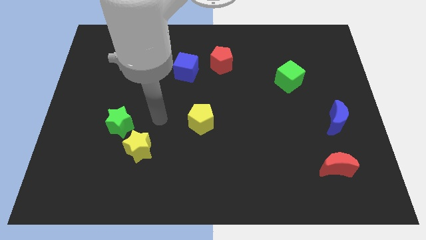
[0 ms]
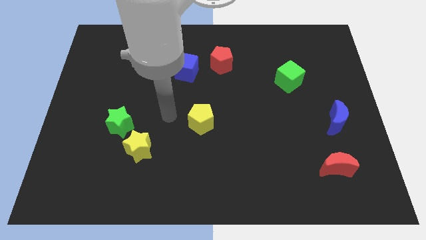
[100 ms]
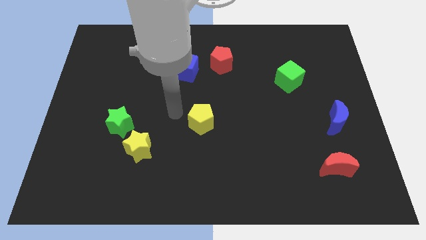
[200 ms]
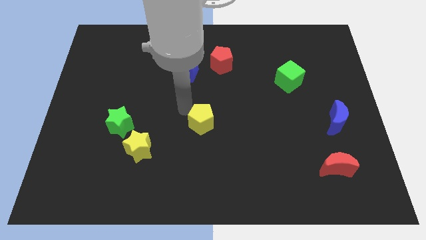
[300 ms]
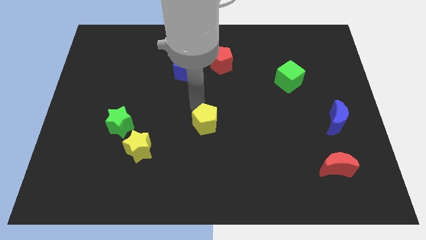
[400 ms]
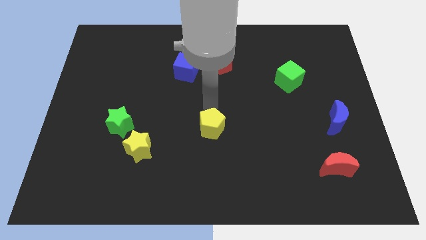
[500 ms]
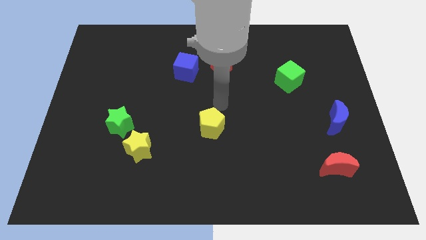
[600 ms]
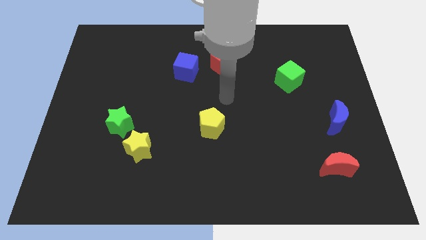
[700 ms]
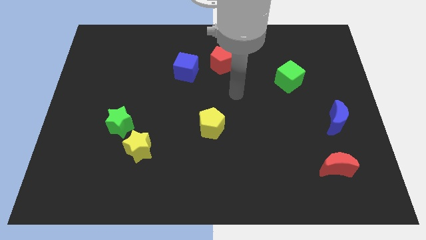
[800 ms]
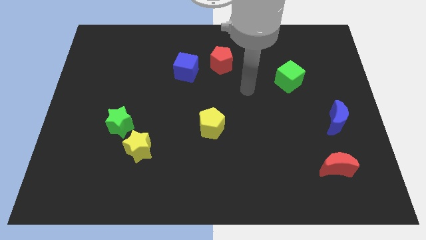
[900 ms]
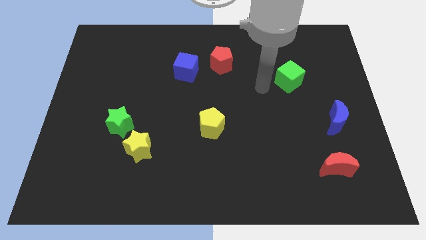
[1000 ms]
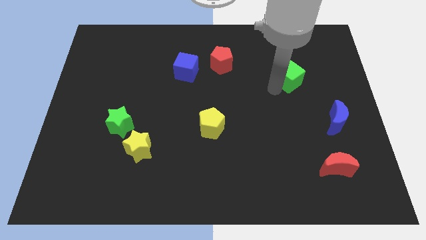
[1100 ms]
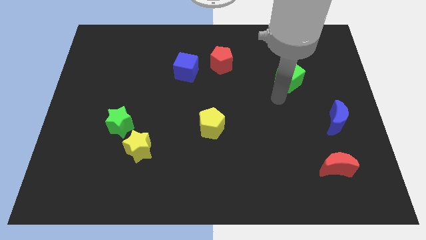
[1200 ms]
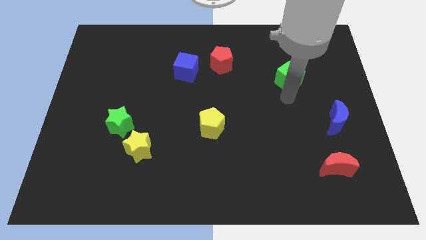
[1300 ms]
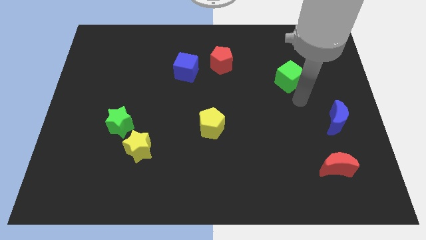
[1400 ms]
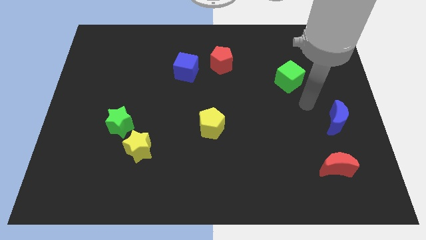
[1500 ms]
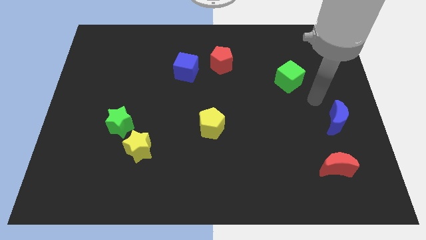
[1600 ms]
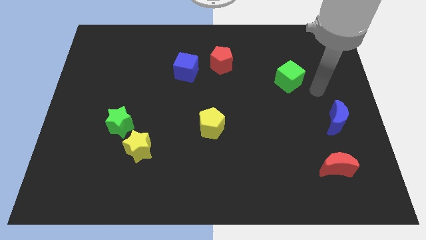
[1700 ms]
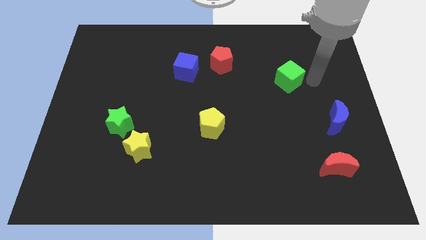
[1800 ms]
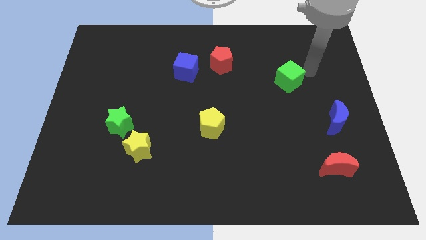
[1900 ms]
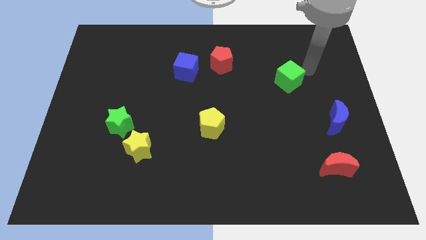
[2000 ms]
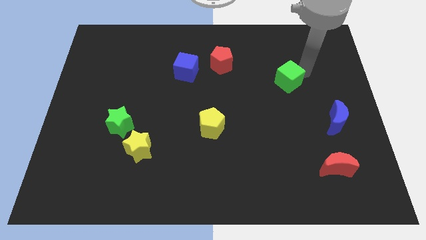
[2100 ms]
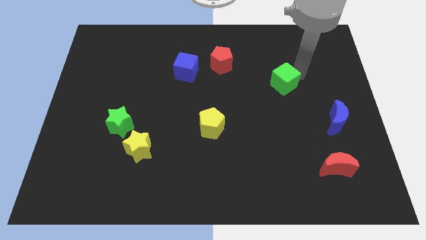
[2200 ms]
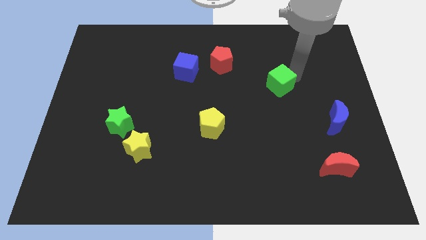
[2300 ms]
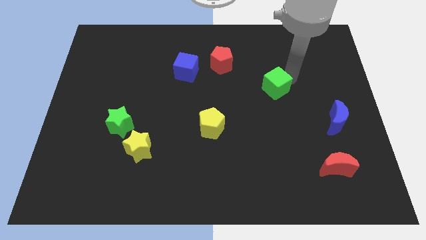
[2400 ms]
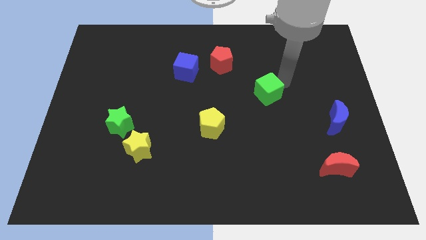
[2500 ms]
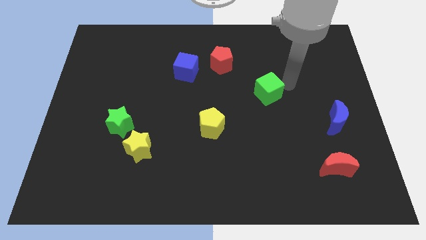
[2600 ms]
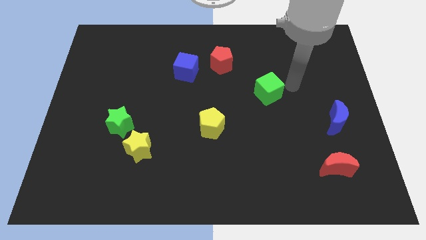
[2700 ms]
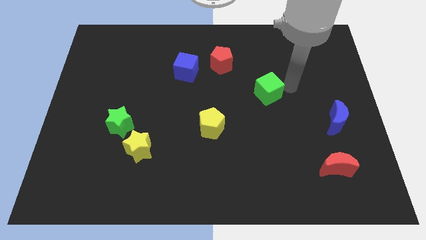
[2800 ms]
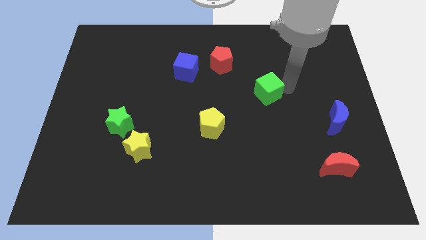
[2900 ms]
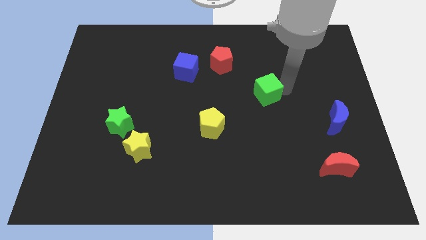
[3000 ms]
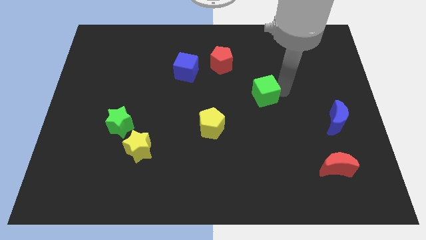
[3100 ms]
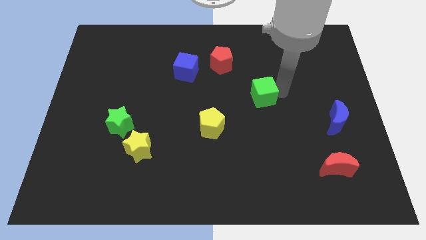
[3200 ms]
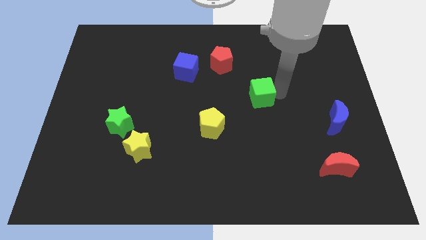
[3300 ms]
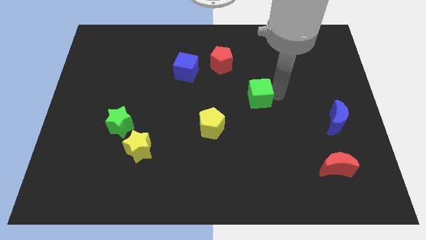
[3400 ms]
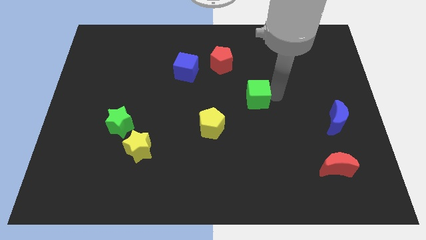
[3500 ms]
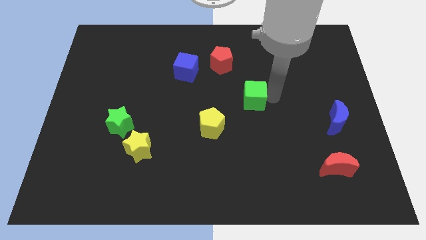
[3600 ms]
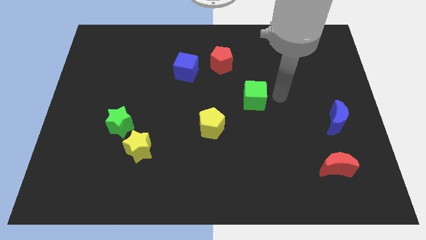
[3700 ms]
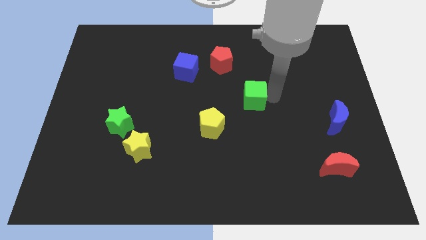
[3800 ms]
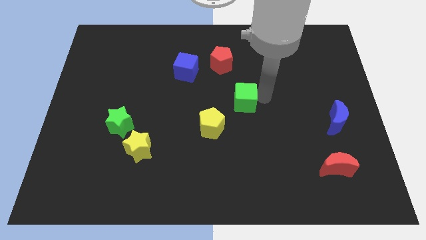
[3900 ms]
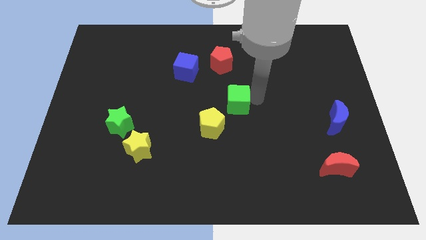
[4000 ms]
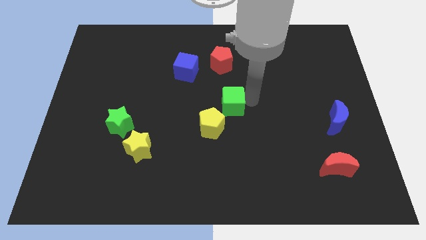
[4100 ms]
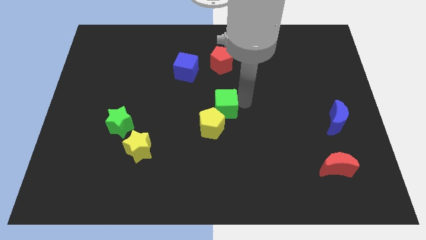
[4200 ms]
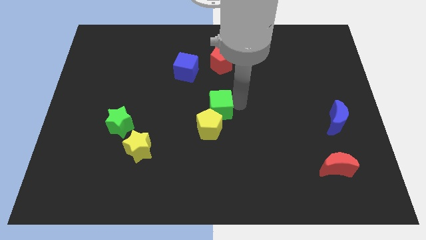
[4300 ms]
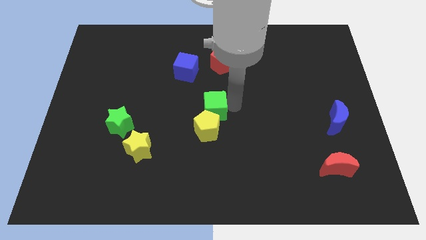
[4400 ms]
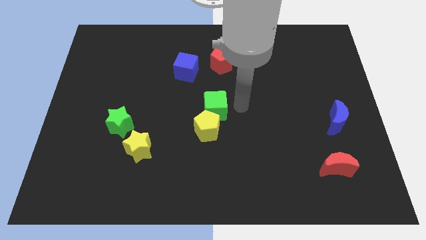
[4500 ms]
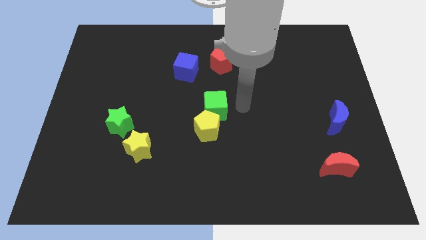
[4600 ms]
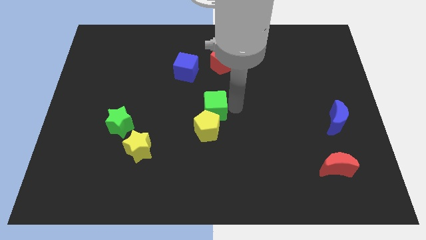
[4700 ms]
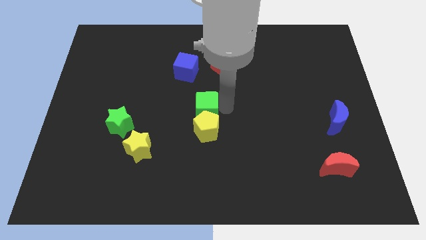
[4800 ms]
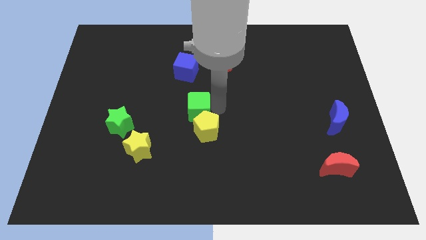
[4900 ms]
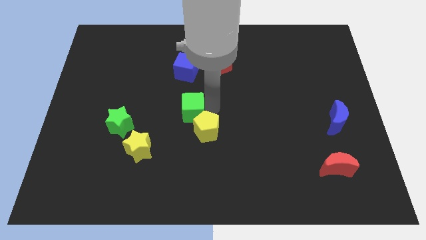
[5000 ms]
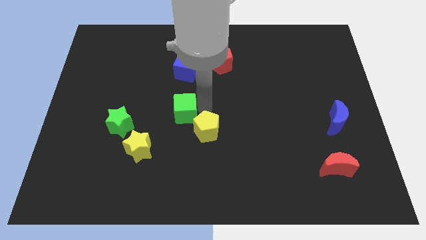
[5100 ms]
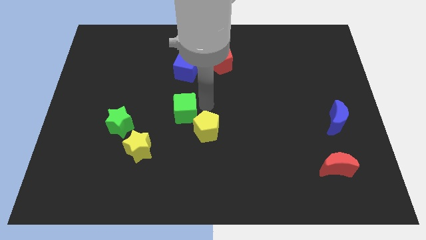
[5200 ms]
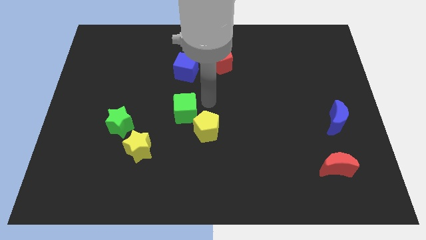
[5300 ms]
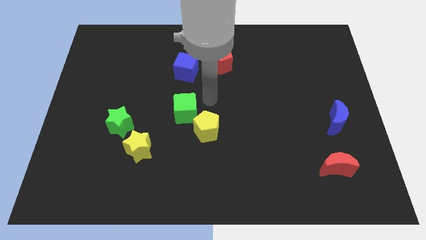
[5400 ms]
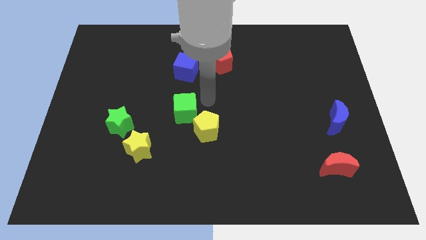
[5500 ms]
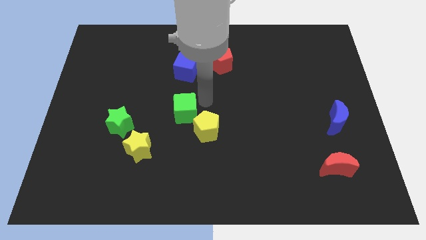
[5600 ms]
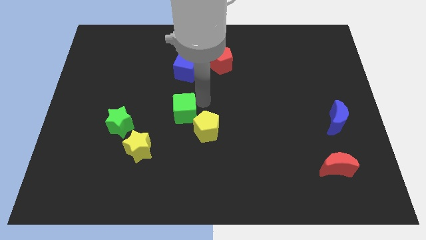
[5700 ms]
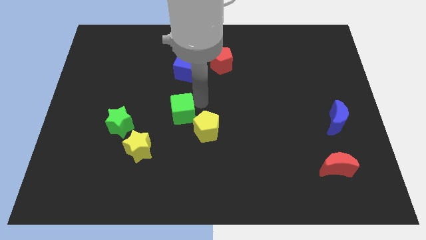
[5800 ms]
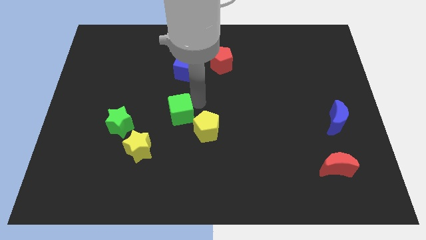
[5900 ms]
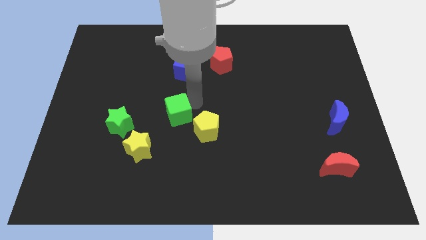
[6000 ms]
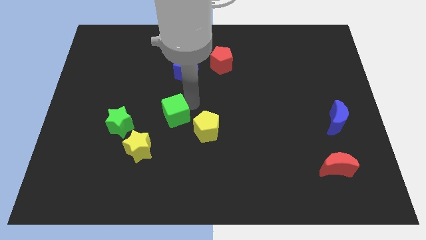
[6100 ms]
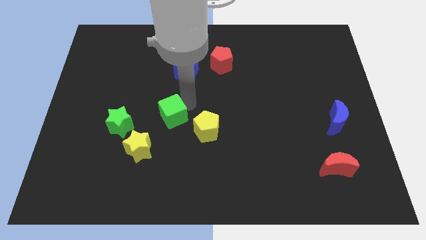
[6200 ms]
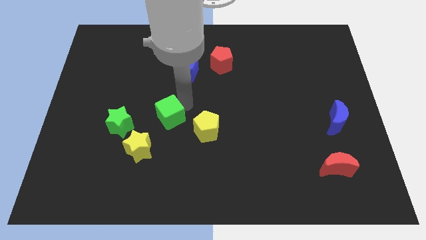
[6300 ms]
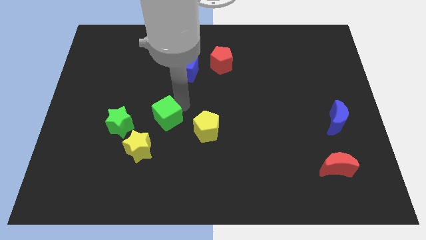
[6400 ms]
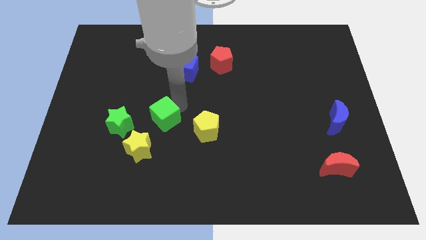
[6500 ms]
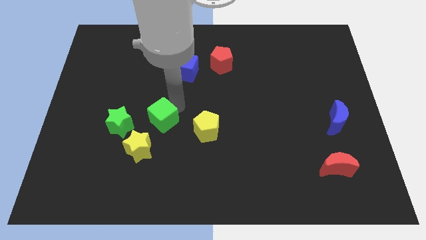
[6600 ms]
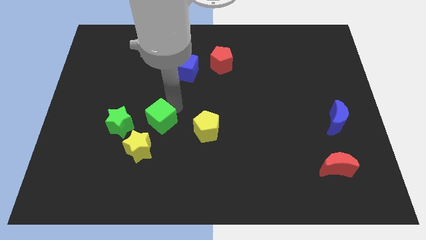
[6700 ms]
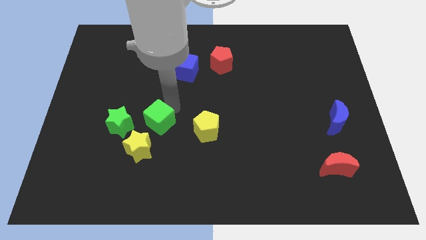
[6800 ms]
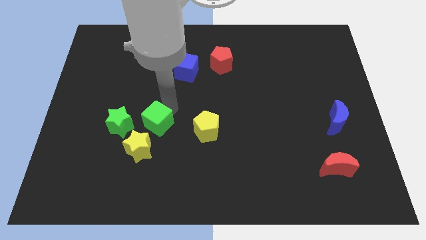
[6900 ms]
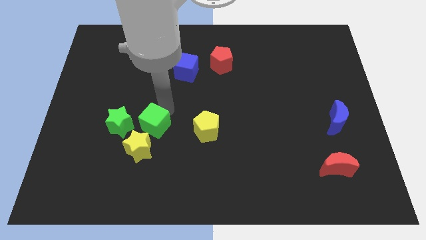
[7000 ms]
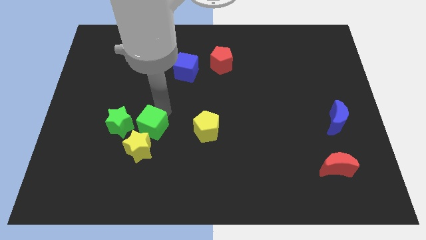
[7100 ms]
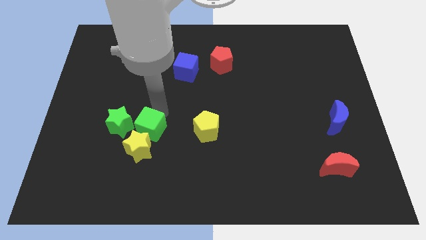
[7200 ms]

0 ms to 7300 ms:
move the green cube towards the yellow star

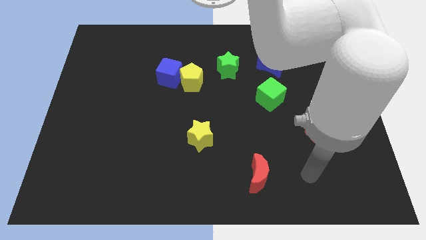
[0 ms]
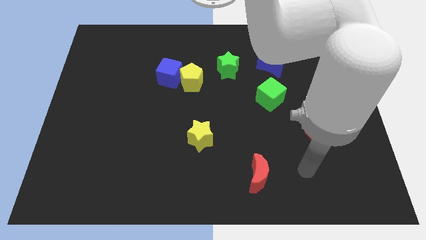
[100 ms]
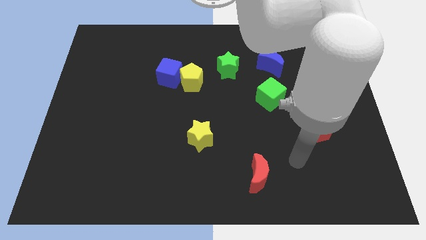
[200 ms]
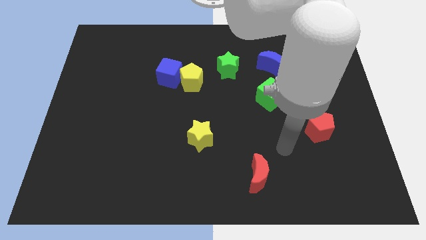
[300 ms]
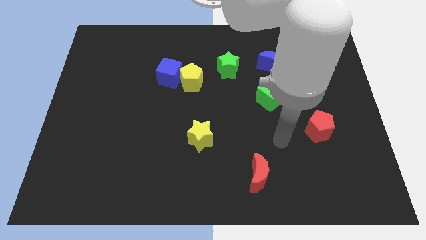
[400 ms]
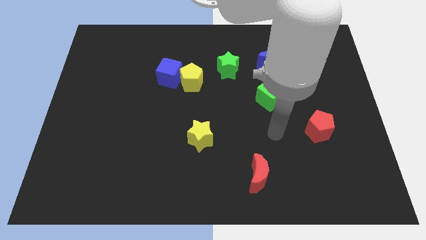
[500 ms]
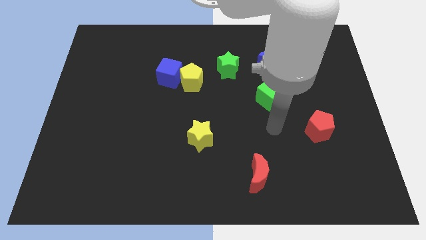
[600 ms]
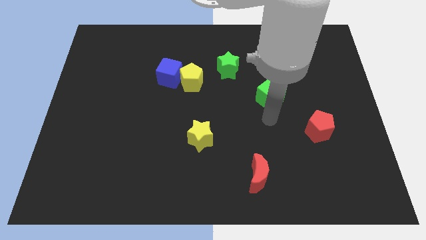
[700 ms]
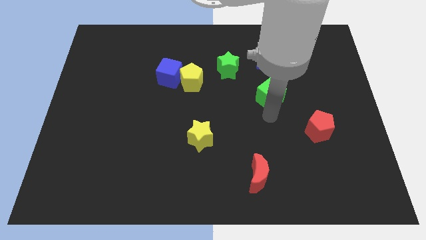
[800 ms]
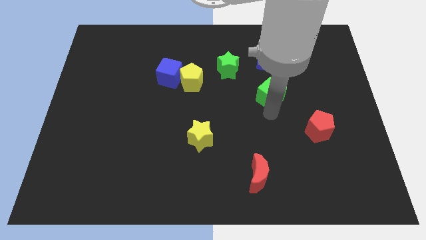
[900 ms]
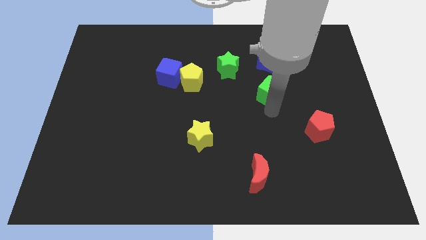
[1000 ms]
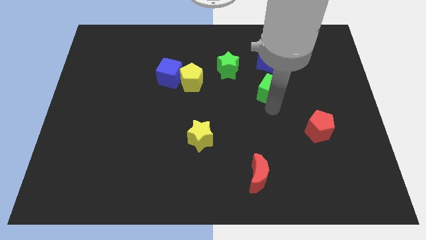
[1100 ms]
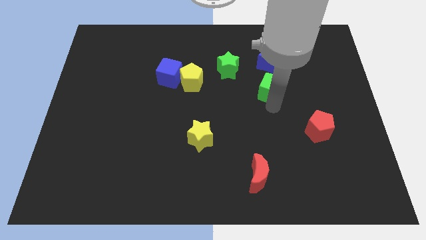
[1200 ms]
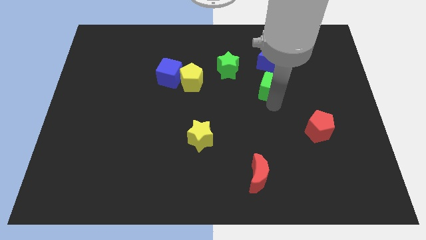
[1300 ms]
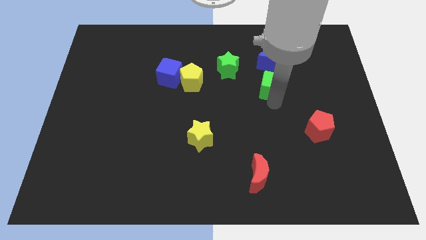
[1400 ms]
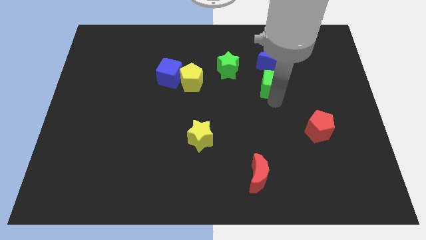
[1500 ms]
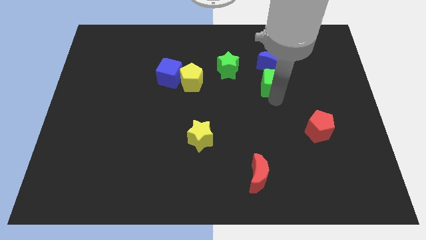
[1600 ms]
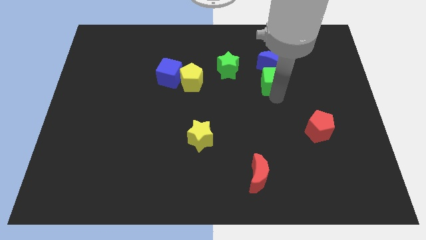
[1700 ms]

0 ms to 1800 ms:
put the green cube towards the blue moon
